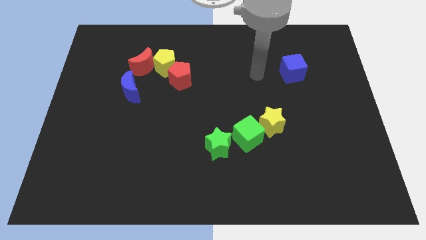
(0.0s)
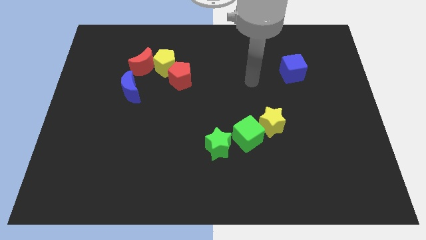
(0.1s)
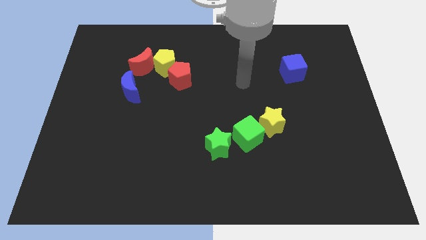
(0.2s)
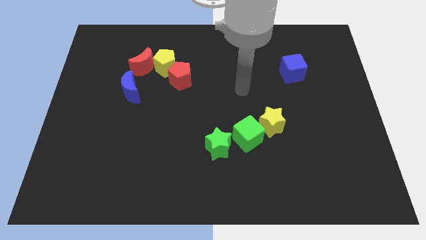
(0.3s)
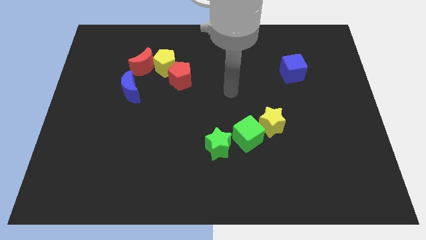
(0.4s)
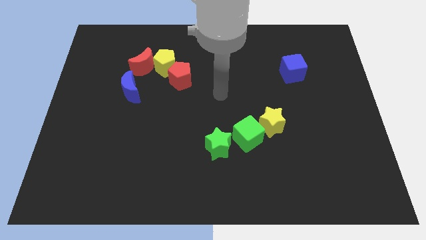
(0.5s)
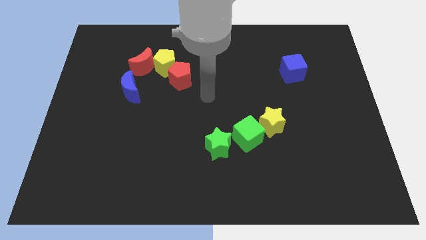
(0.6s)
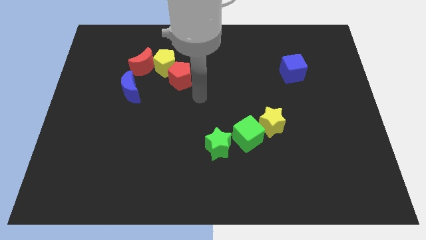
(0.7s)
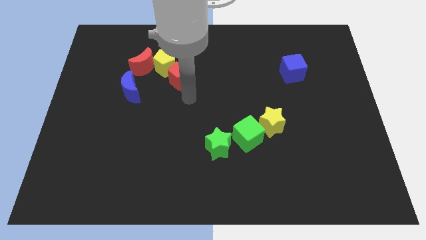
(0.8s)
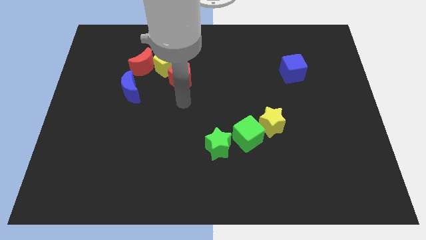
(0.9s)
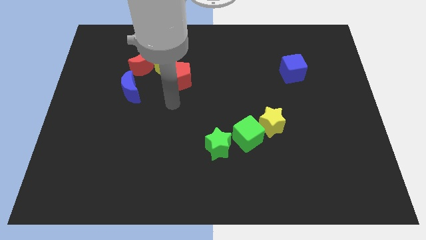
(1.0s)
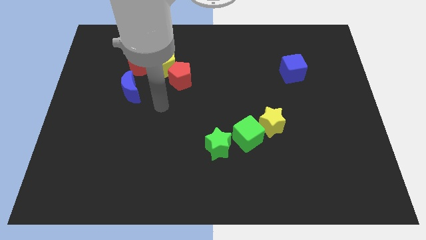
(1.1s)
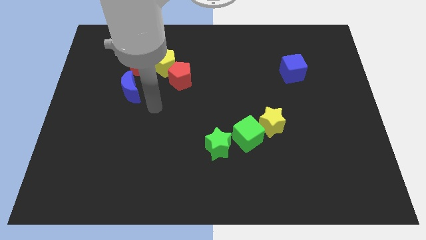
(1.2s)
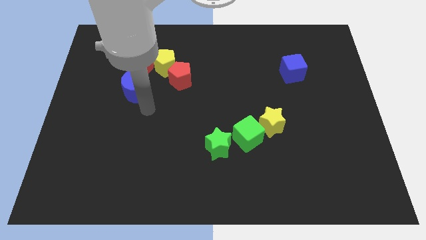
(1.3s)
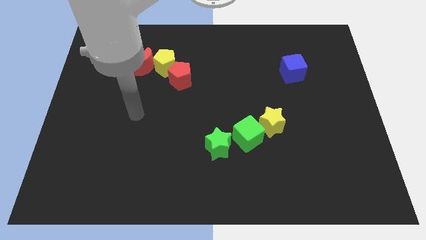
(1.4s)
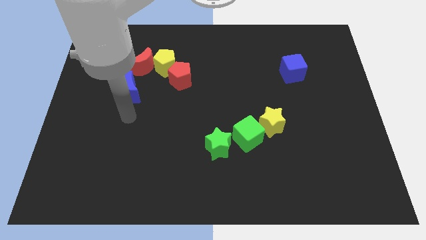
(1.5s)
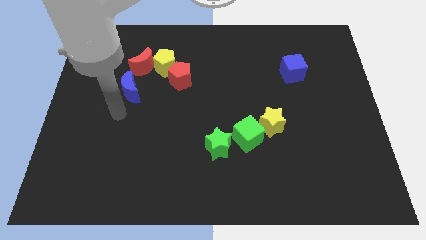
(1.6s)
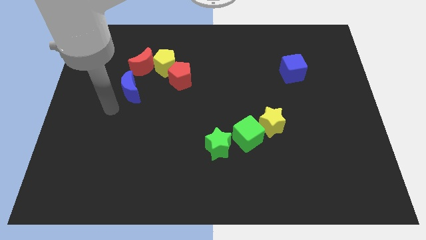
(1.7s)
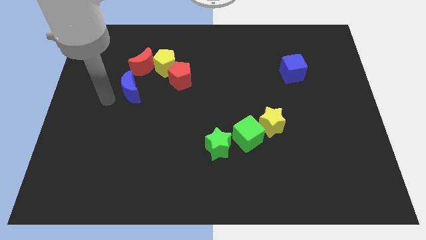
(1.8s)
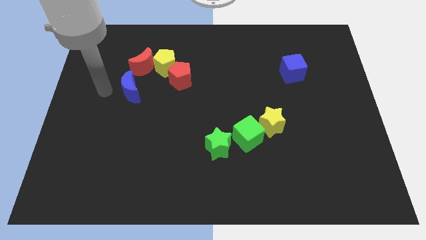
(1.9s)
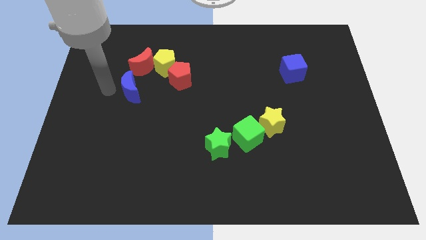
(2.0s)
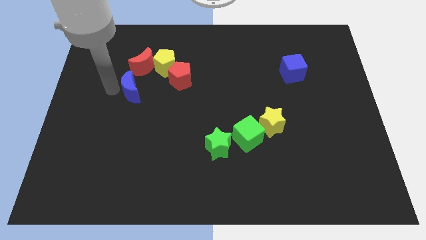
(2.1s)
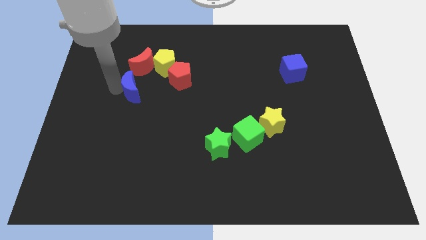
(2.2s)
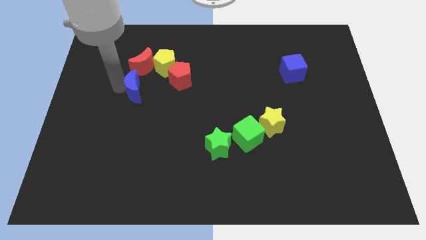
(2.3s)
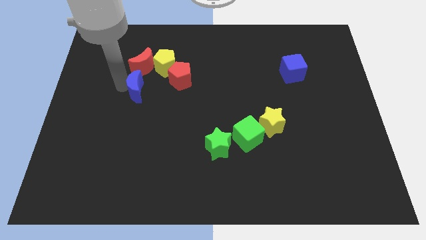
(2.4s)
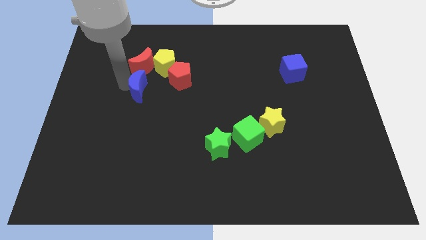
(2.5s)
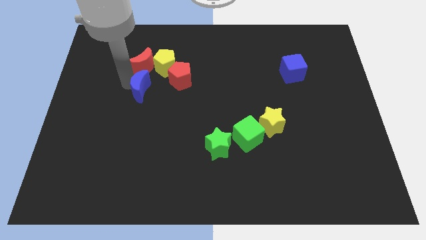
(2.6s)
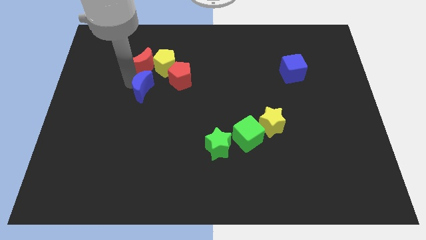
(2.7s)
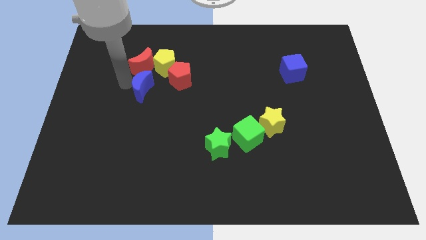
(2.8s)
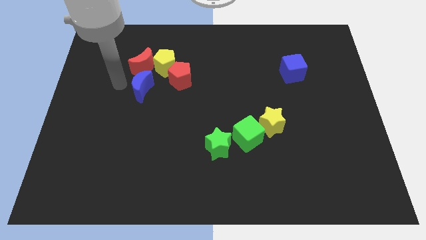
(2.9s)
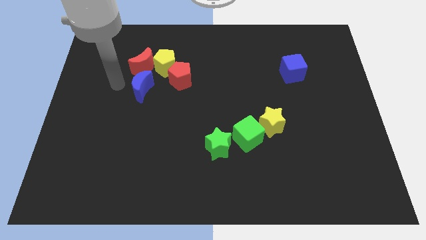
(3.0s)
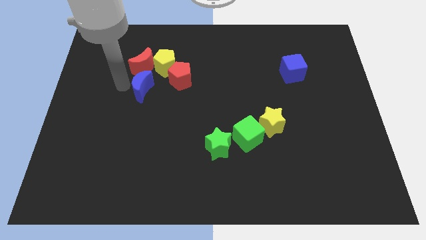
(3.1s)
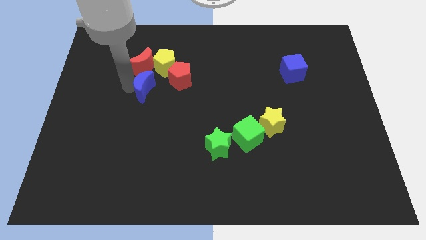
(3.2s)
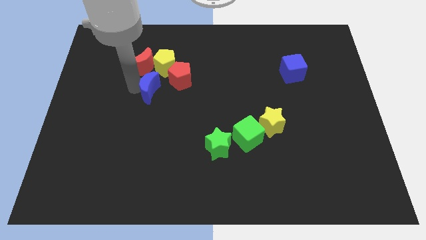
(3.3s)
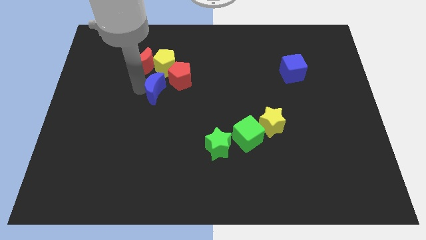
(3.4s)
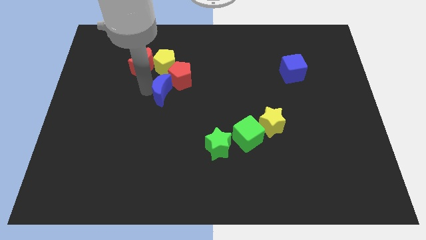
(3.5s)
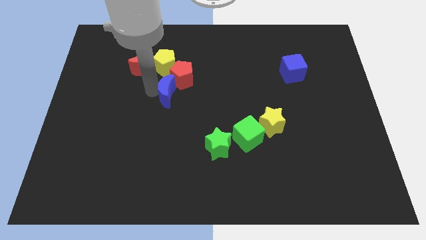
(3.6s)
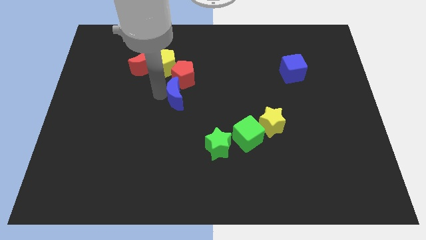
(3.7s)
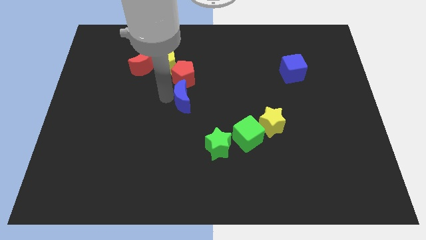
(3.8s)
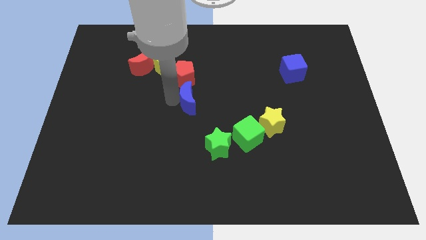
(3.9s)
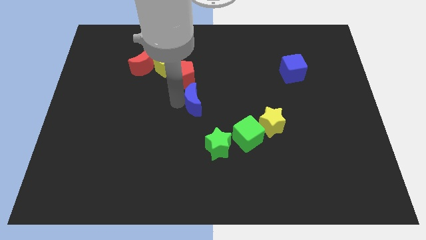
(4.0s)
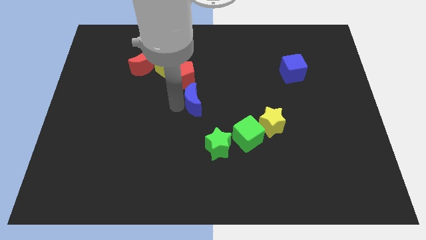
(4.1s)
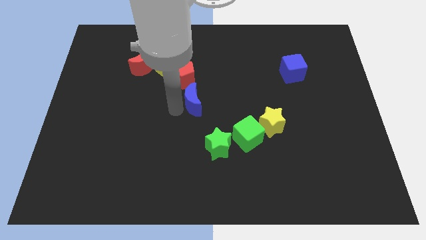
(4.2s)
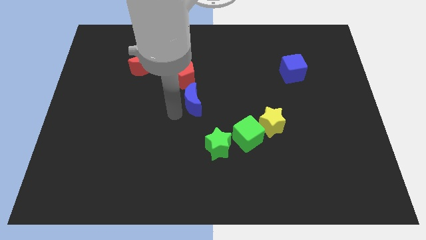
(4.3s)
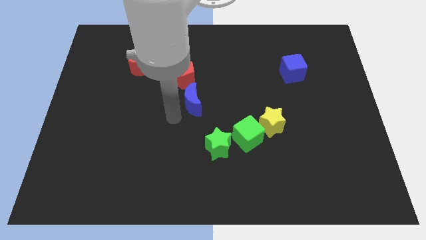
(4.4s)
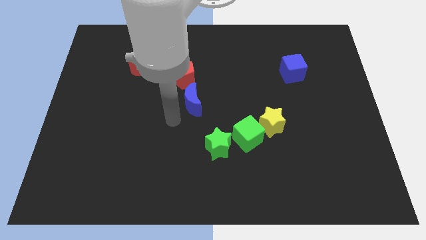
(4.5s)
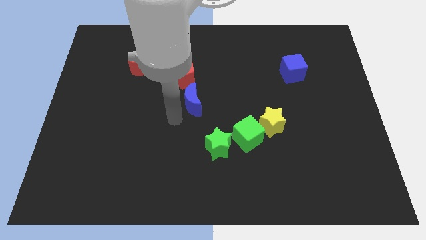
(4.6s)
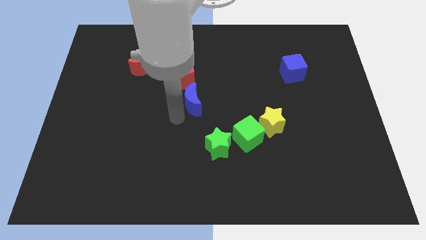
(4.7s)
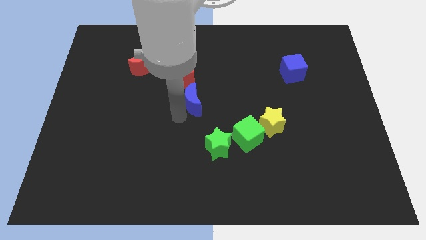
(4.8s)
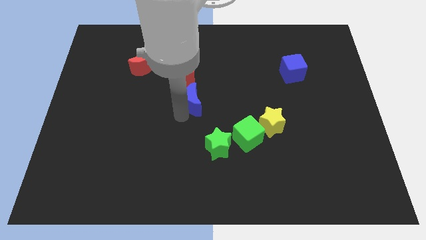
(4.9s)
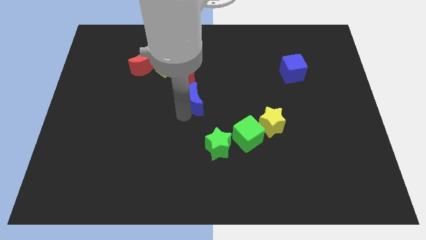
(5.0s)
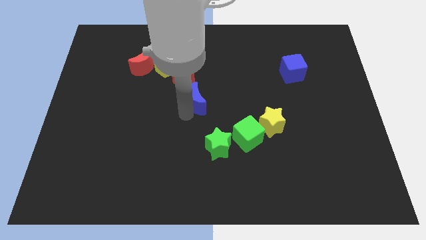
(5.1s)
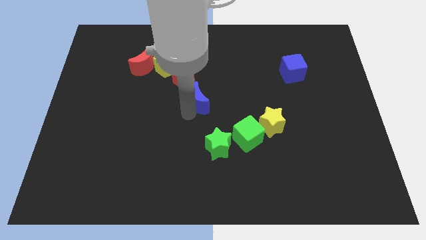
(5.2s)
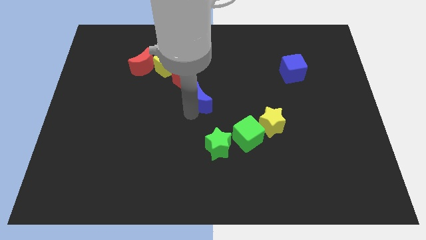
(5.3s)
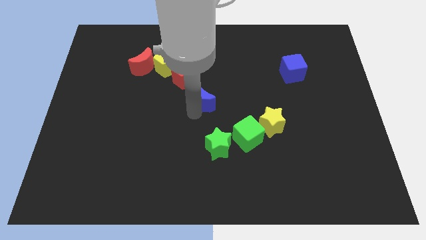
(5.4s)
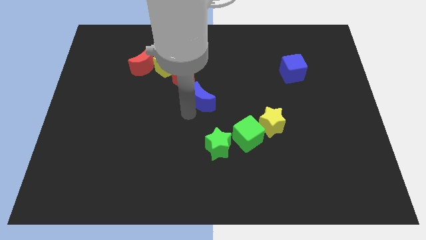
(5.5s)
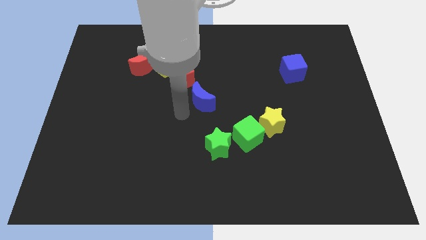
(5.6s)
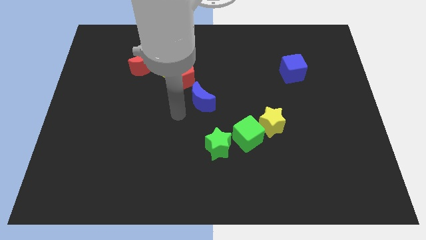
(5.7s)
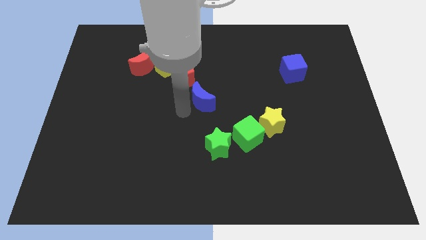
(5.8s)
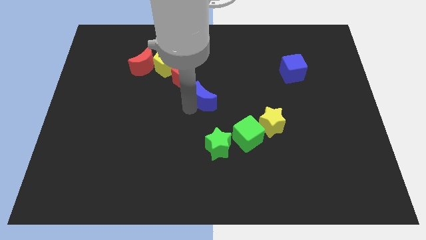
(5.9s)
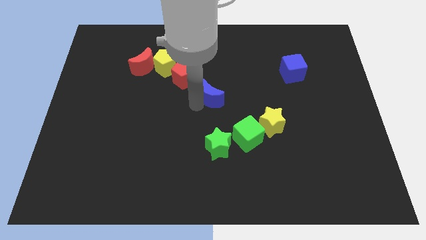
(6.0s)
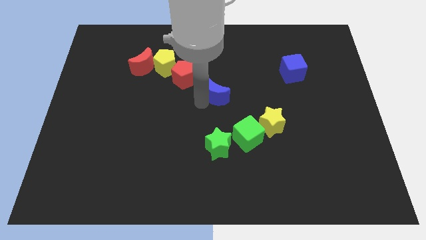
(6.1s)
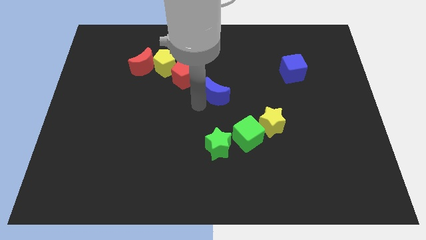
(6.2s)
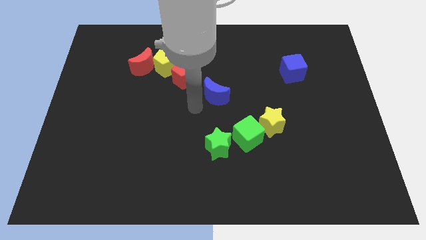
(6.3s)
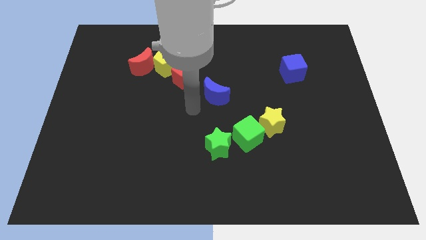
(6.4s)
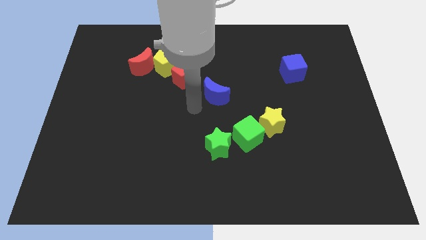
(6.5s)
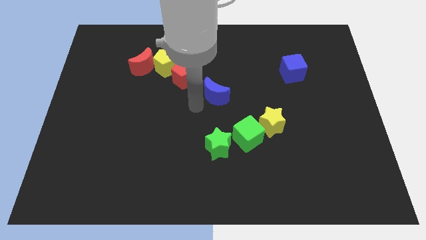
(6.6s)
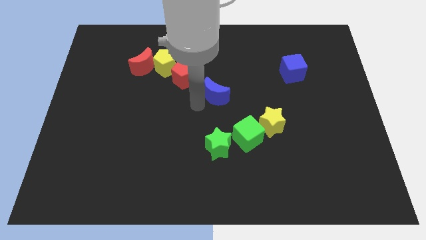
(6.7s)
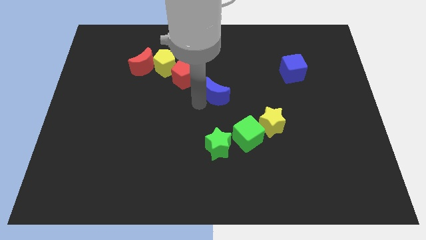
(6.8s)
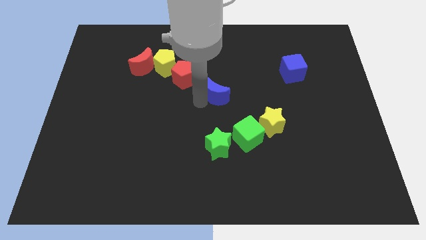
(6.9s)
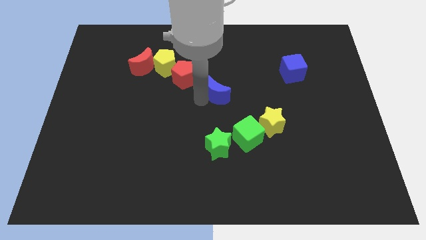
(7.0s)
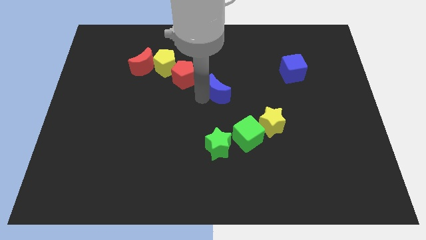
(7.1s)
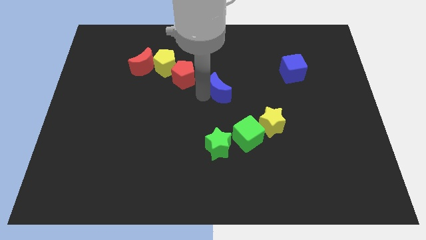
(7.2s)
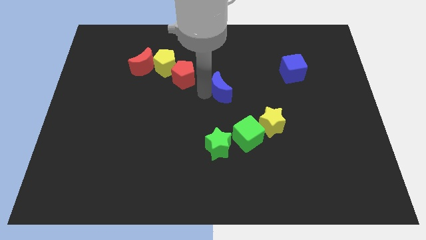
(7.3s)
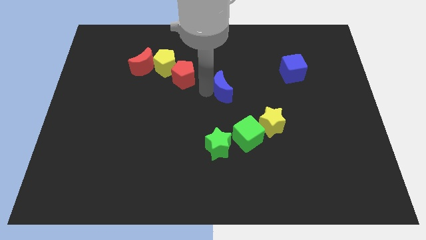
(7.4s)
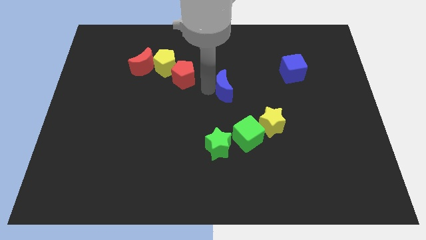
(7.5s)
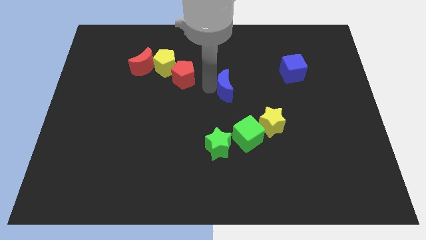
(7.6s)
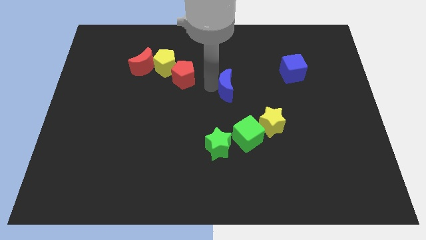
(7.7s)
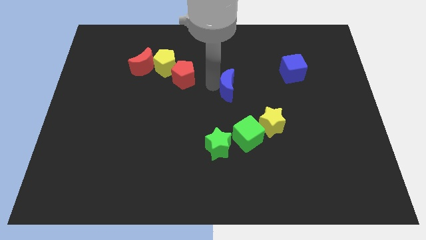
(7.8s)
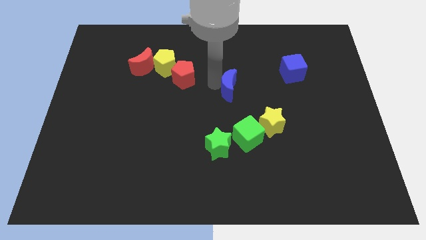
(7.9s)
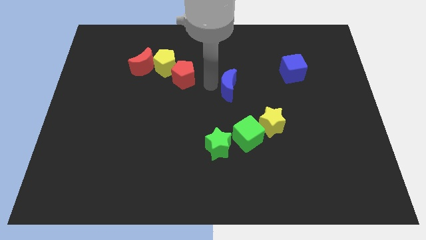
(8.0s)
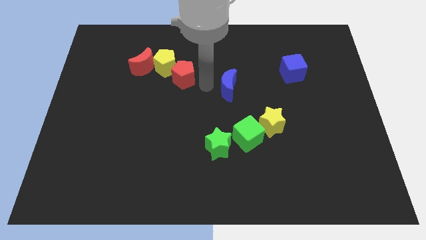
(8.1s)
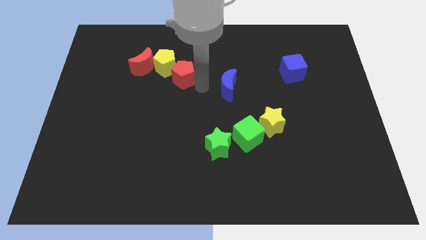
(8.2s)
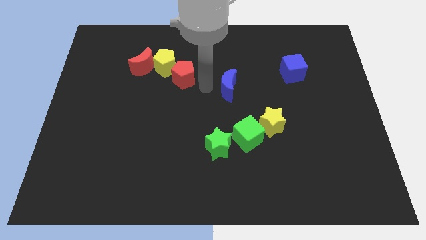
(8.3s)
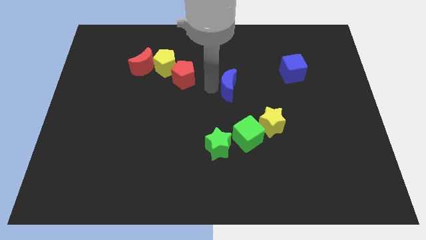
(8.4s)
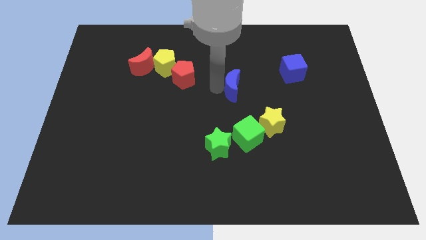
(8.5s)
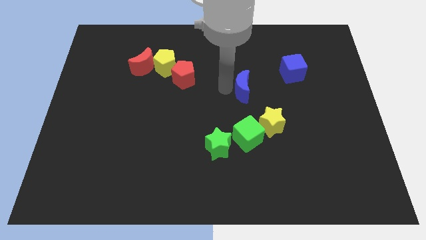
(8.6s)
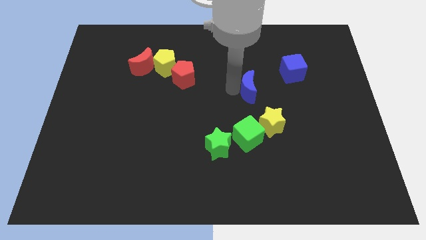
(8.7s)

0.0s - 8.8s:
slide the blue moon to the top of the yellow star
